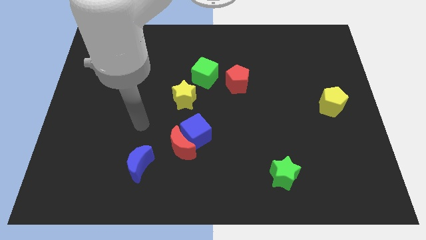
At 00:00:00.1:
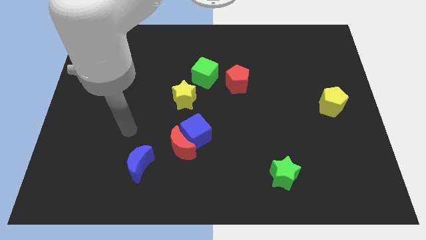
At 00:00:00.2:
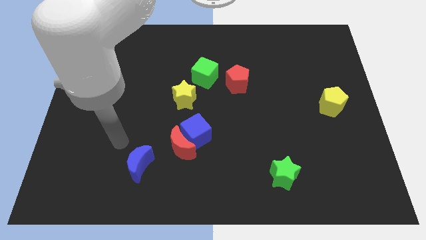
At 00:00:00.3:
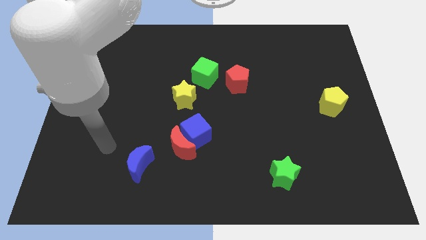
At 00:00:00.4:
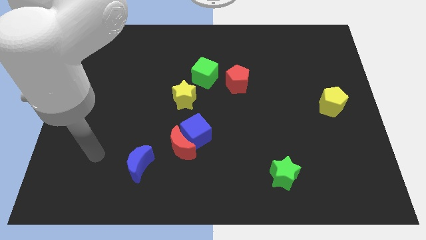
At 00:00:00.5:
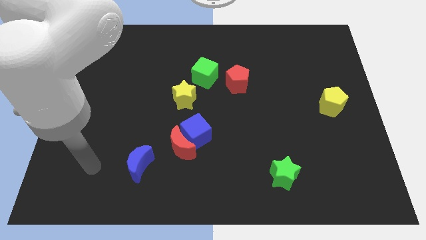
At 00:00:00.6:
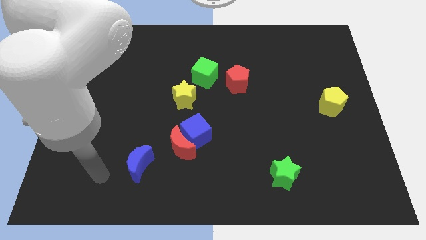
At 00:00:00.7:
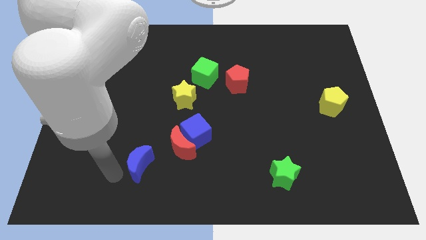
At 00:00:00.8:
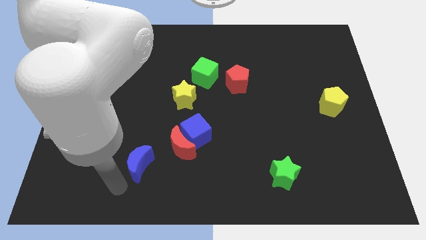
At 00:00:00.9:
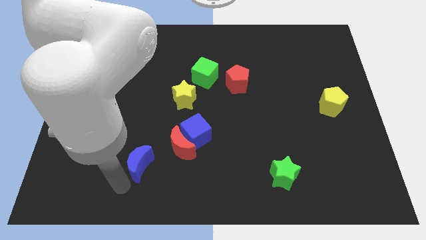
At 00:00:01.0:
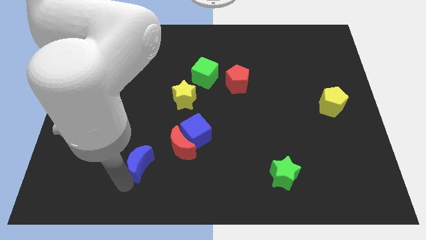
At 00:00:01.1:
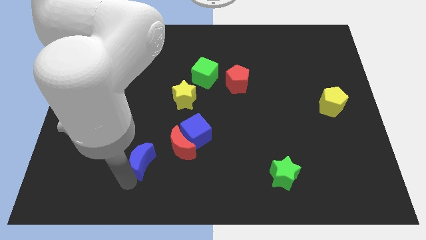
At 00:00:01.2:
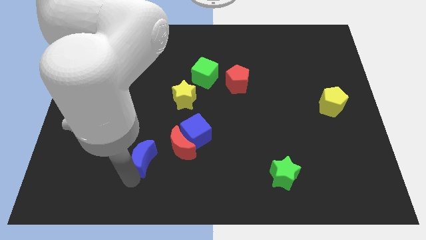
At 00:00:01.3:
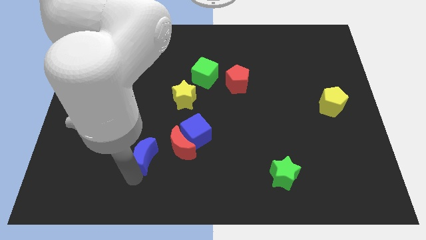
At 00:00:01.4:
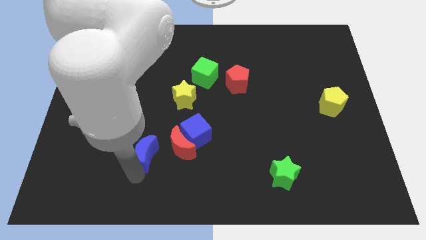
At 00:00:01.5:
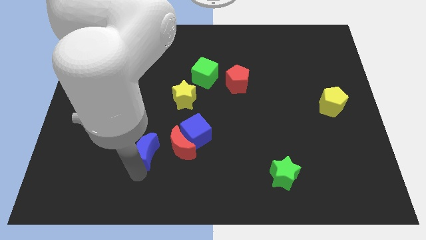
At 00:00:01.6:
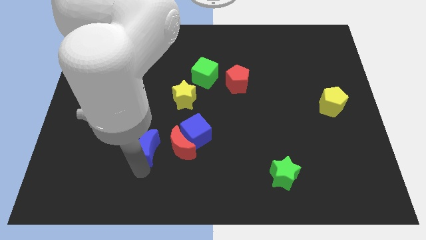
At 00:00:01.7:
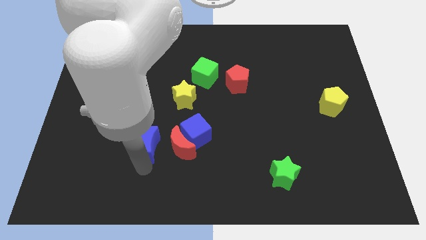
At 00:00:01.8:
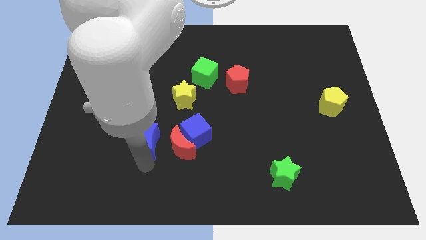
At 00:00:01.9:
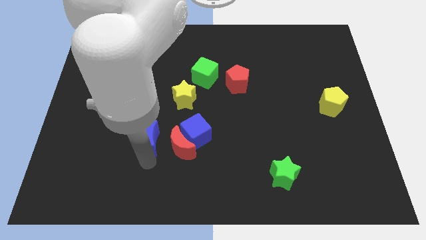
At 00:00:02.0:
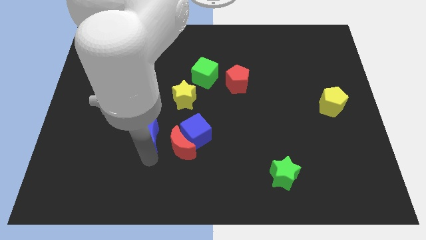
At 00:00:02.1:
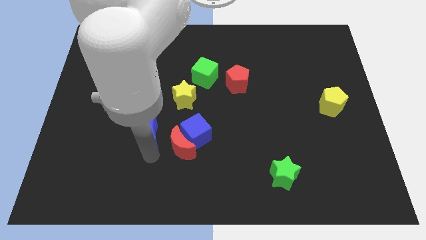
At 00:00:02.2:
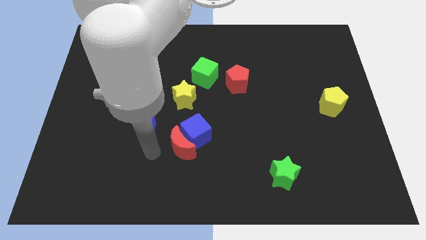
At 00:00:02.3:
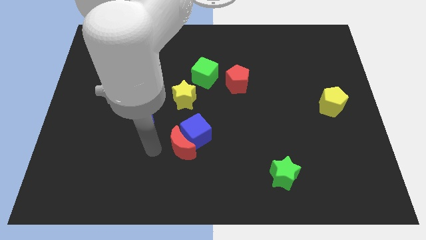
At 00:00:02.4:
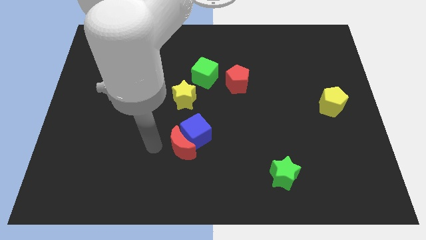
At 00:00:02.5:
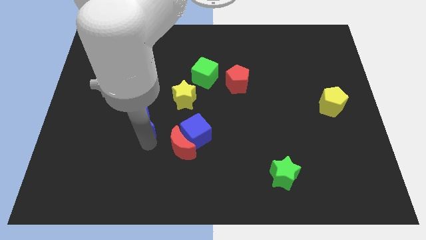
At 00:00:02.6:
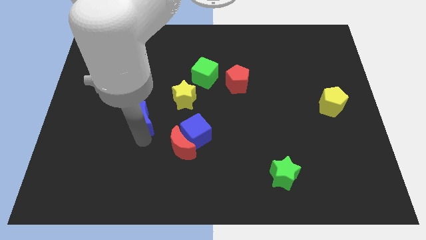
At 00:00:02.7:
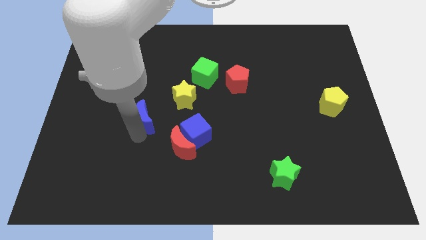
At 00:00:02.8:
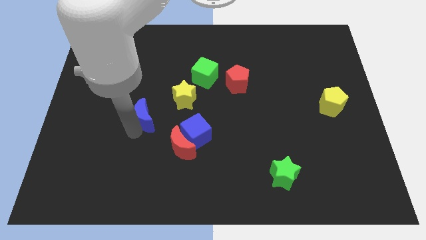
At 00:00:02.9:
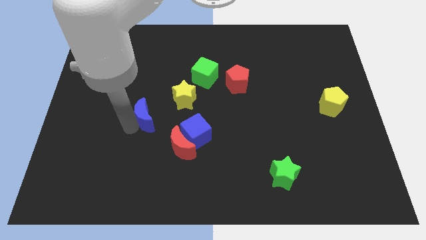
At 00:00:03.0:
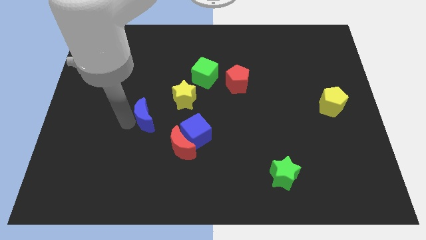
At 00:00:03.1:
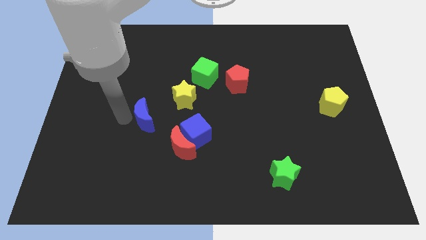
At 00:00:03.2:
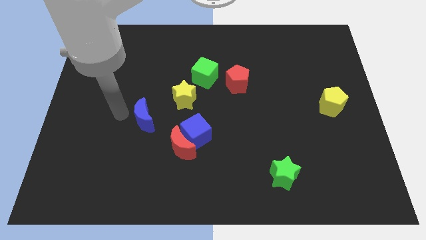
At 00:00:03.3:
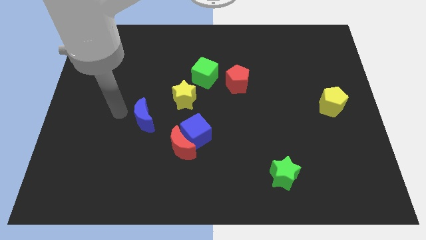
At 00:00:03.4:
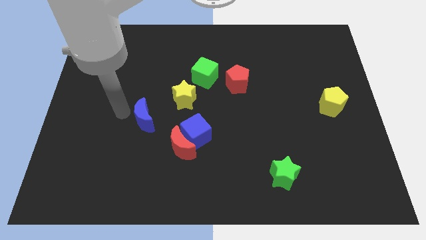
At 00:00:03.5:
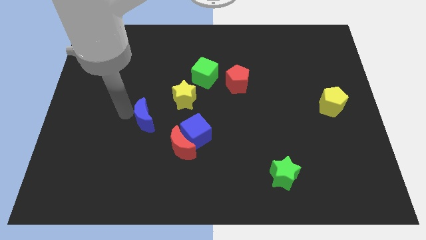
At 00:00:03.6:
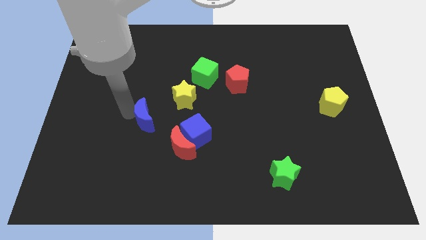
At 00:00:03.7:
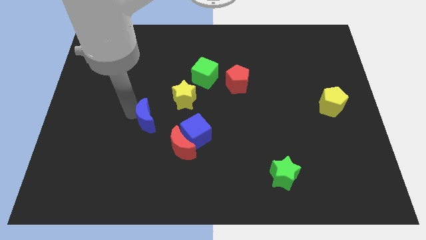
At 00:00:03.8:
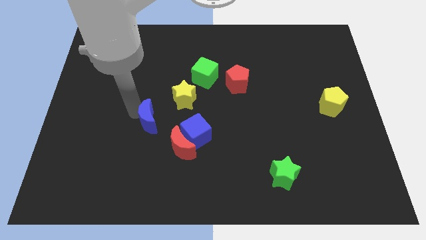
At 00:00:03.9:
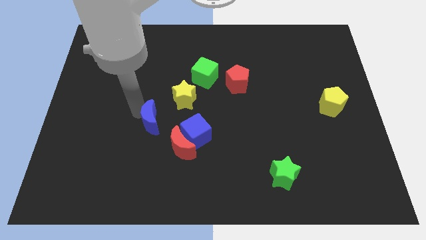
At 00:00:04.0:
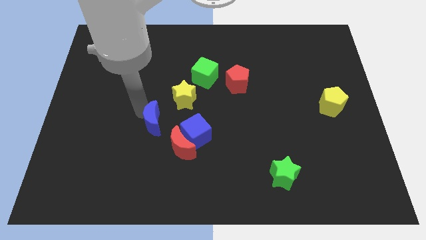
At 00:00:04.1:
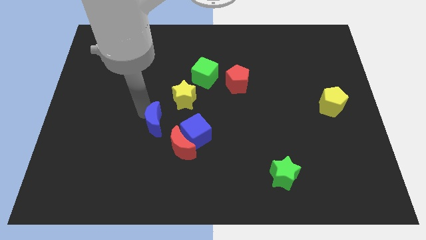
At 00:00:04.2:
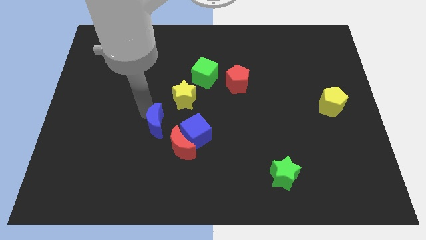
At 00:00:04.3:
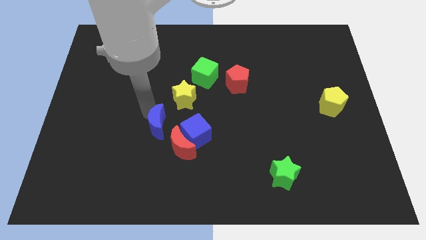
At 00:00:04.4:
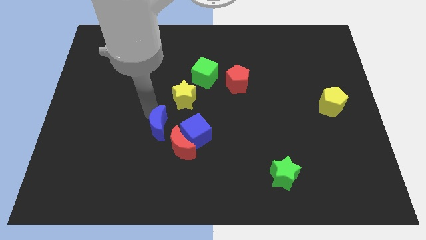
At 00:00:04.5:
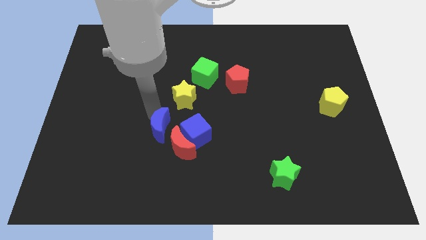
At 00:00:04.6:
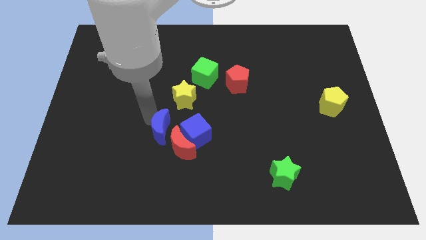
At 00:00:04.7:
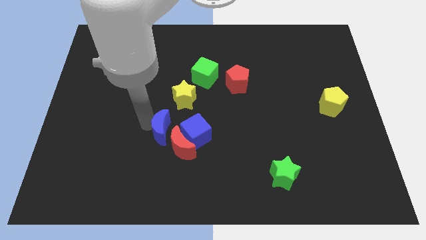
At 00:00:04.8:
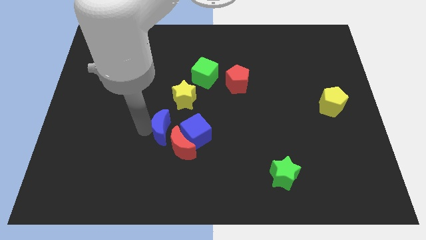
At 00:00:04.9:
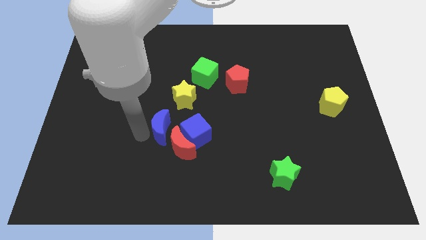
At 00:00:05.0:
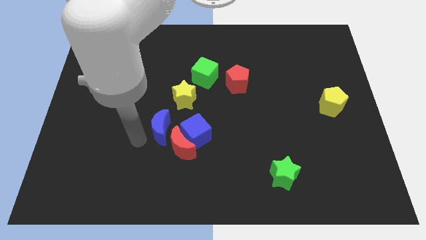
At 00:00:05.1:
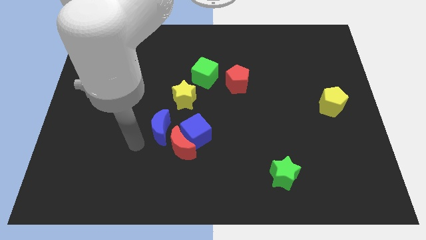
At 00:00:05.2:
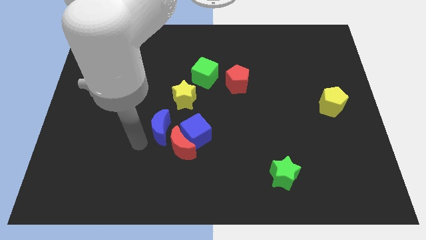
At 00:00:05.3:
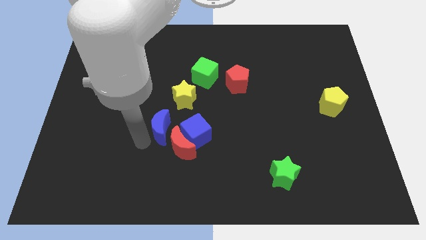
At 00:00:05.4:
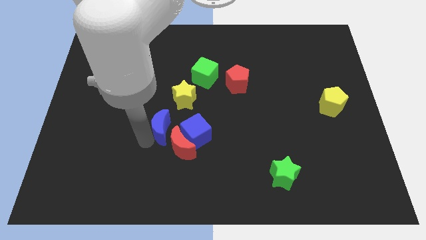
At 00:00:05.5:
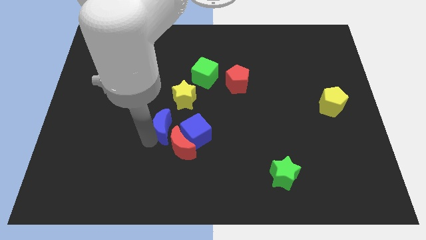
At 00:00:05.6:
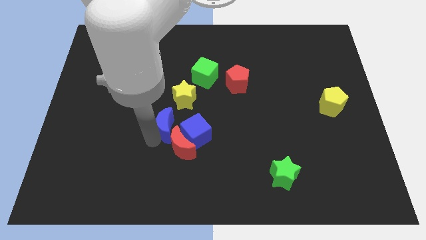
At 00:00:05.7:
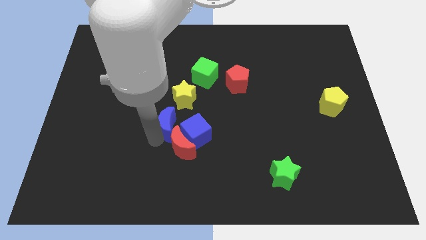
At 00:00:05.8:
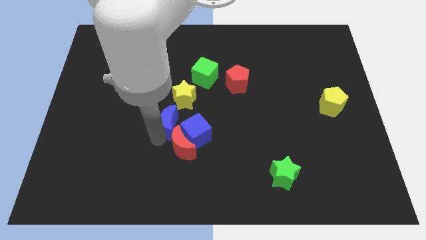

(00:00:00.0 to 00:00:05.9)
slide the blue moon to the middle

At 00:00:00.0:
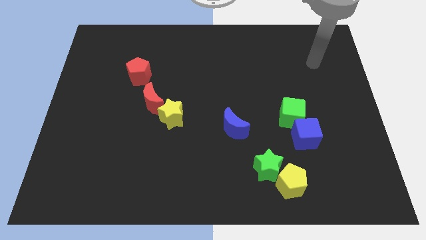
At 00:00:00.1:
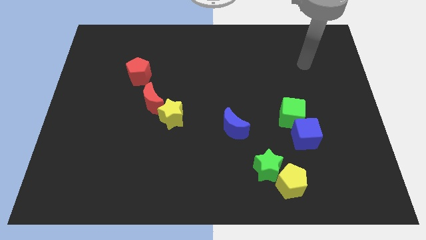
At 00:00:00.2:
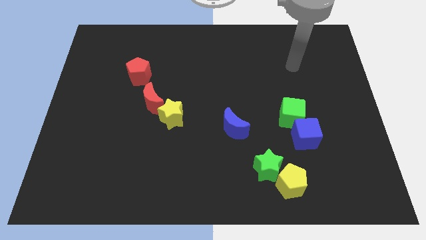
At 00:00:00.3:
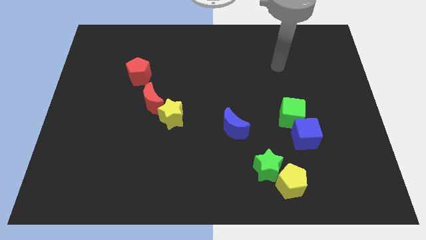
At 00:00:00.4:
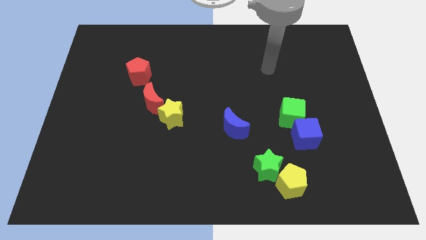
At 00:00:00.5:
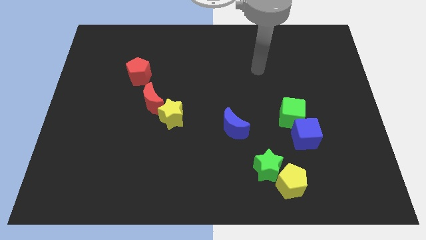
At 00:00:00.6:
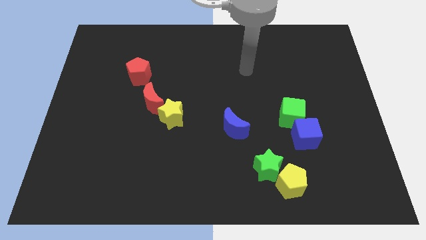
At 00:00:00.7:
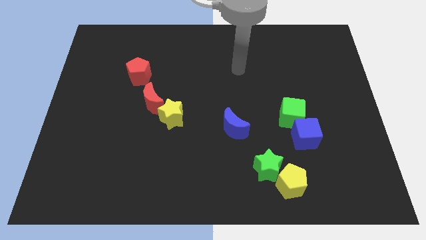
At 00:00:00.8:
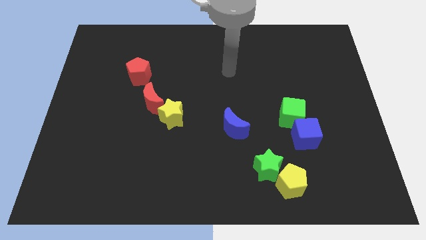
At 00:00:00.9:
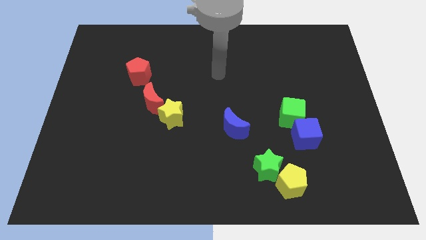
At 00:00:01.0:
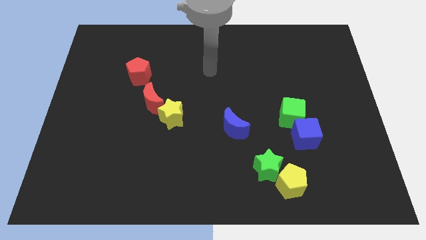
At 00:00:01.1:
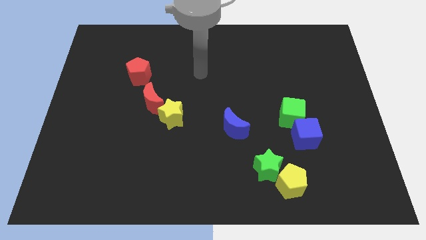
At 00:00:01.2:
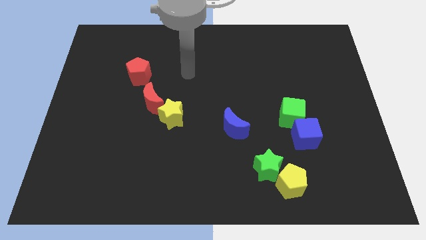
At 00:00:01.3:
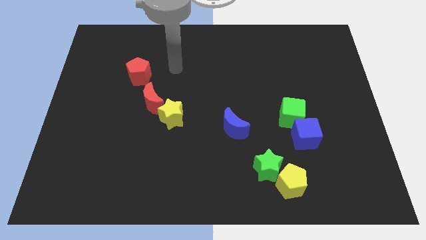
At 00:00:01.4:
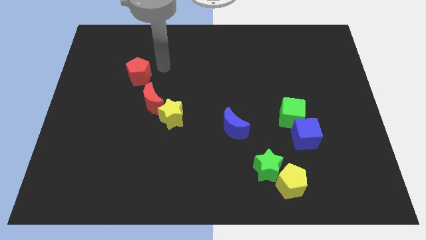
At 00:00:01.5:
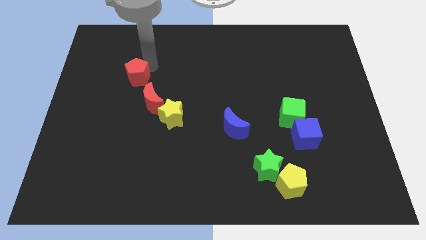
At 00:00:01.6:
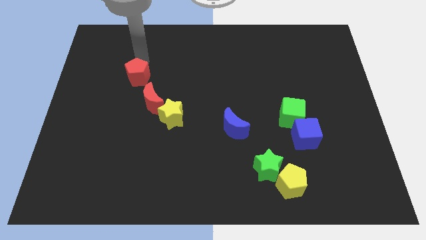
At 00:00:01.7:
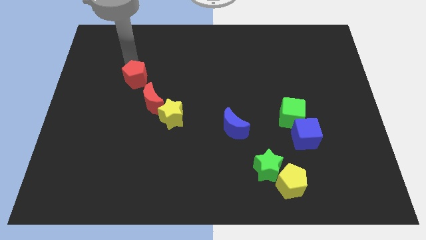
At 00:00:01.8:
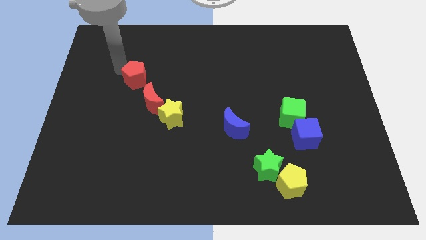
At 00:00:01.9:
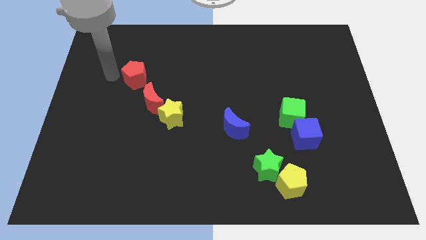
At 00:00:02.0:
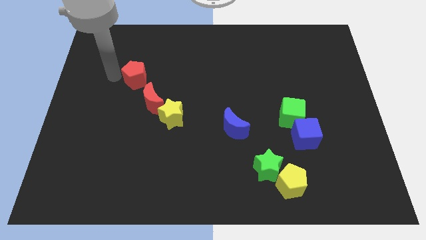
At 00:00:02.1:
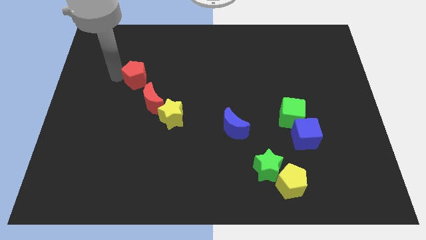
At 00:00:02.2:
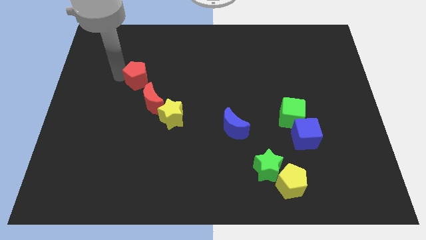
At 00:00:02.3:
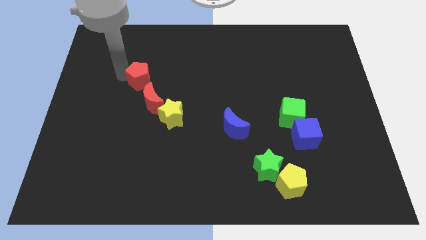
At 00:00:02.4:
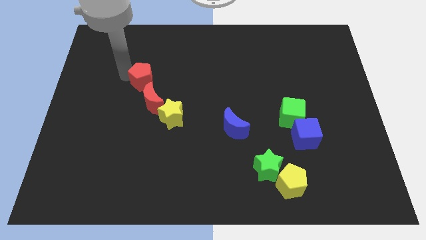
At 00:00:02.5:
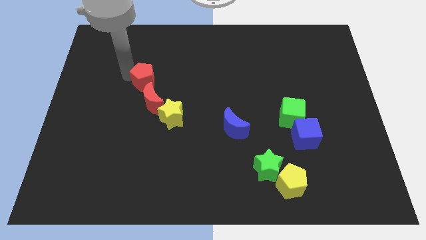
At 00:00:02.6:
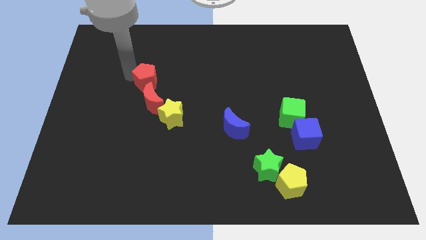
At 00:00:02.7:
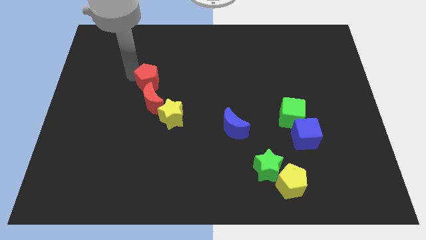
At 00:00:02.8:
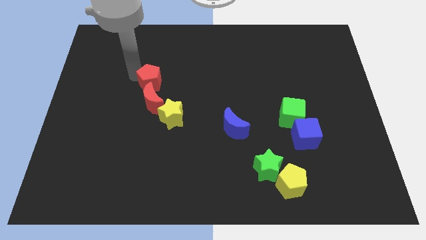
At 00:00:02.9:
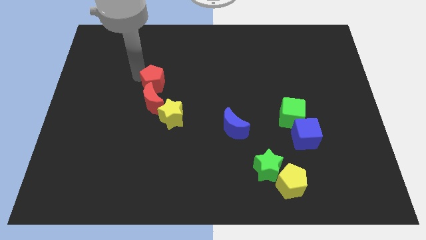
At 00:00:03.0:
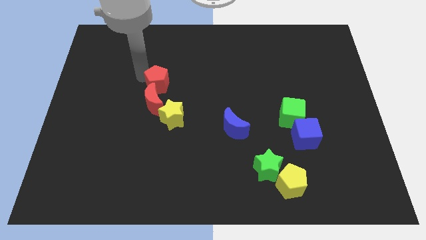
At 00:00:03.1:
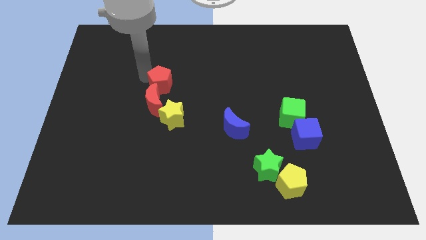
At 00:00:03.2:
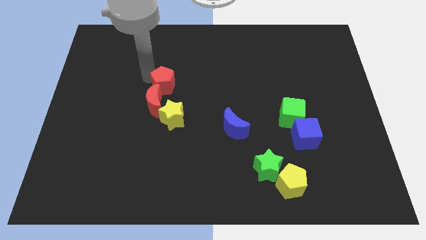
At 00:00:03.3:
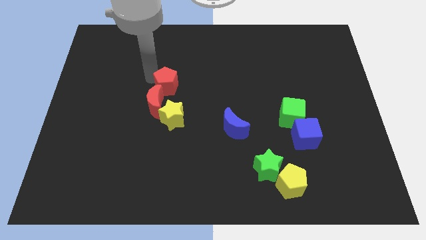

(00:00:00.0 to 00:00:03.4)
push the red pentagon to the center of the board
